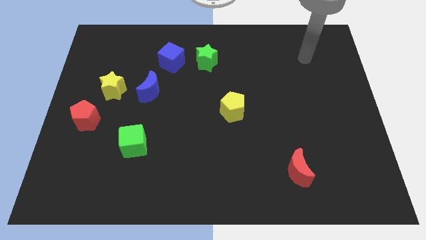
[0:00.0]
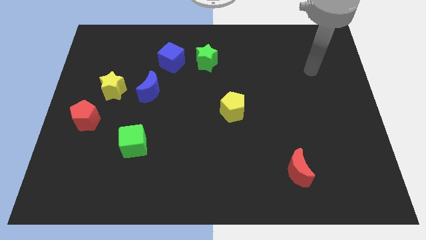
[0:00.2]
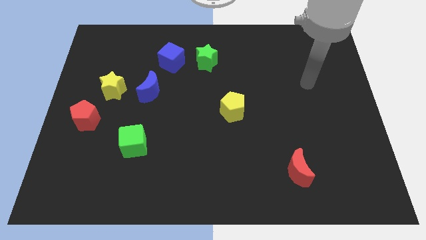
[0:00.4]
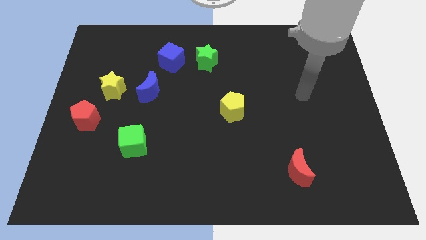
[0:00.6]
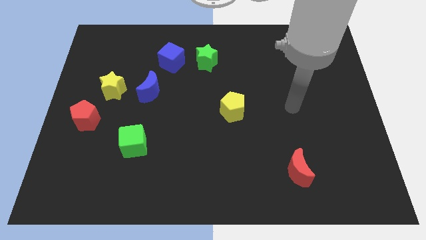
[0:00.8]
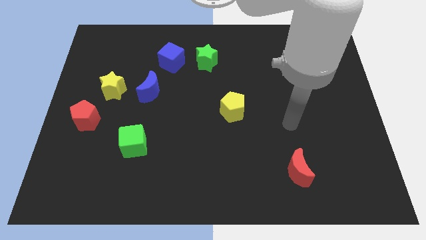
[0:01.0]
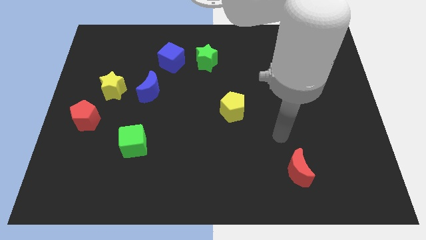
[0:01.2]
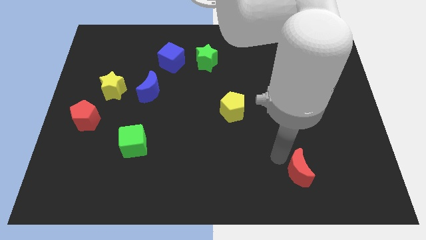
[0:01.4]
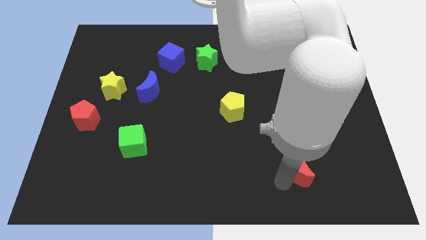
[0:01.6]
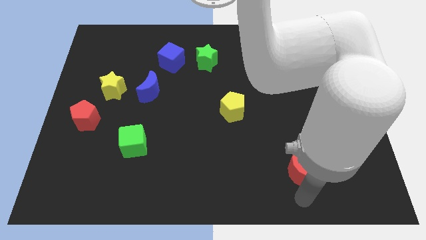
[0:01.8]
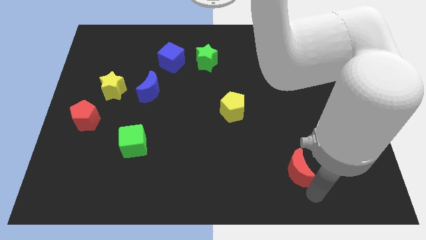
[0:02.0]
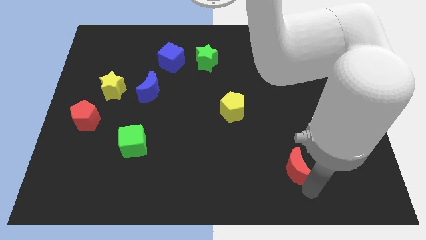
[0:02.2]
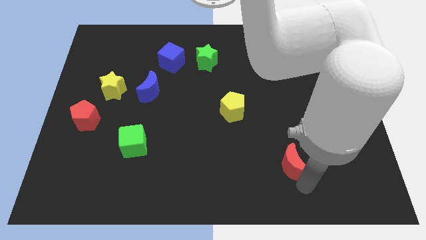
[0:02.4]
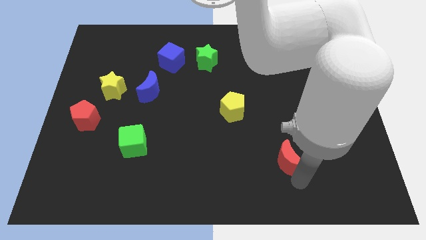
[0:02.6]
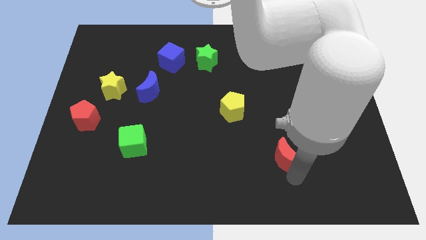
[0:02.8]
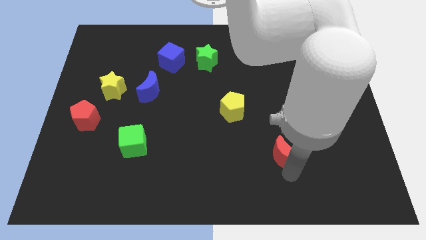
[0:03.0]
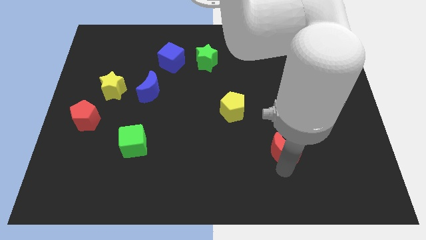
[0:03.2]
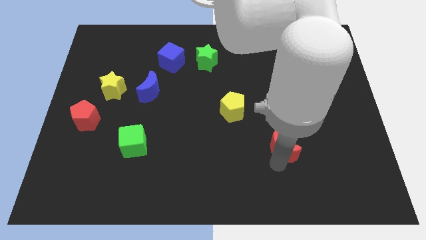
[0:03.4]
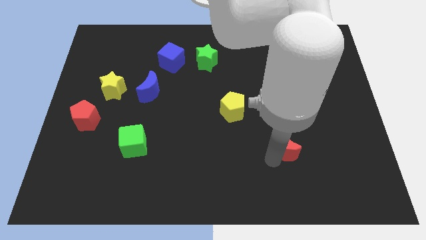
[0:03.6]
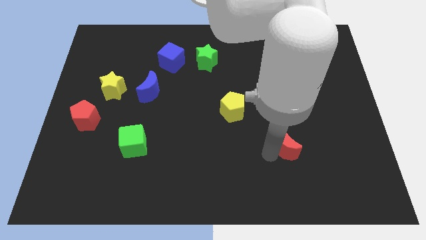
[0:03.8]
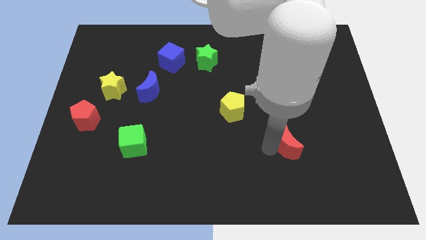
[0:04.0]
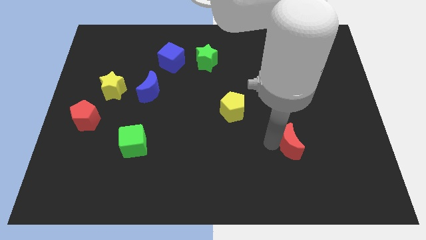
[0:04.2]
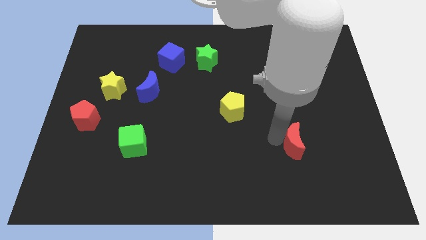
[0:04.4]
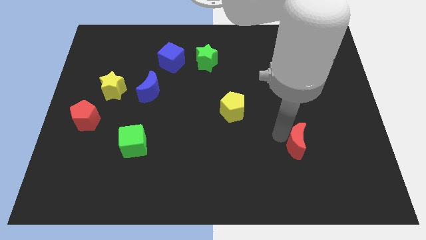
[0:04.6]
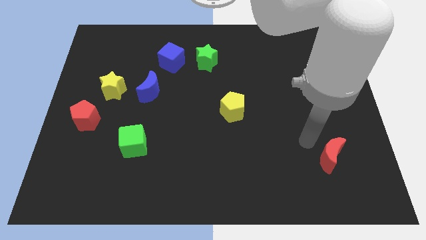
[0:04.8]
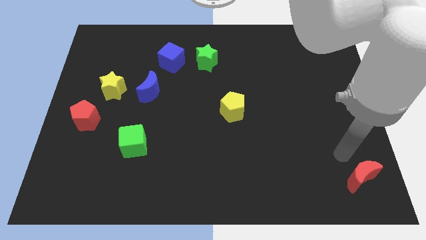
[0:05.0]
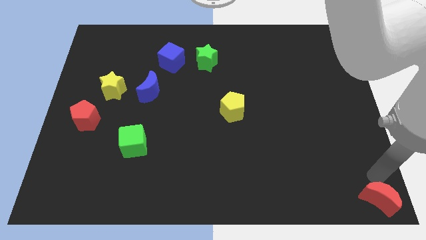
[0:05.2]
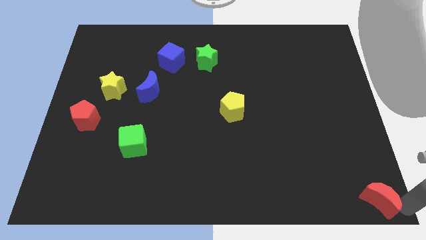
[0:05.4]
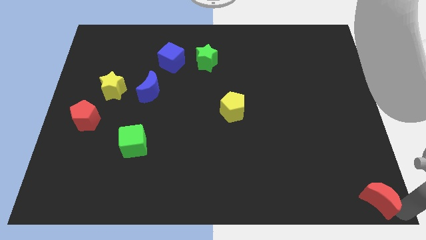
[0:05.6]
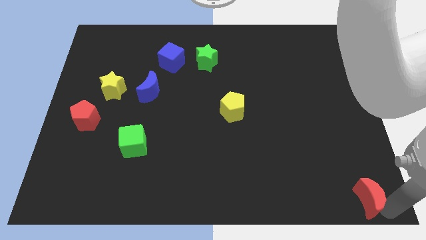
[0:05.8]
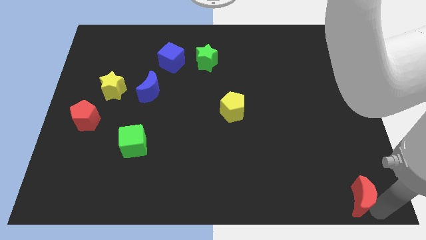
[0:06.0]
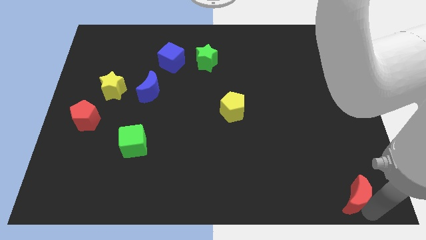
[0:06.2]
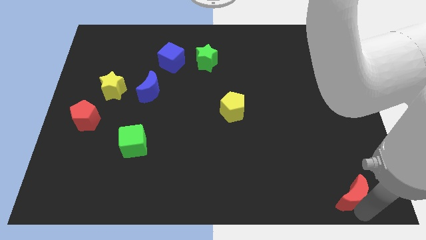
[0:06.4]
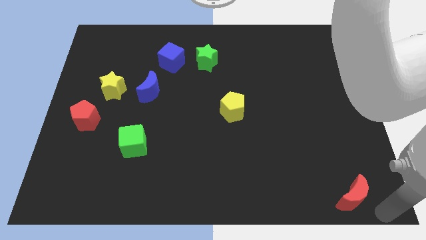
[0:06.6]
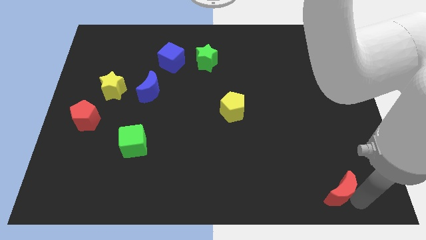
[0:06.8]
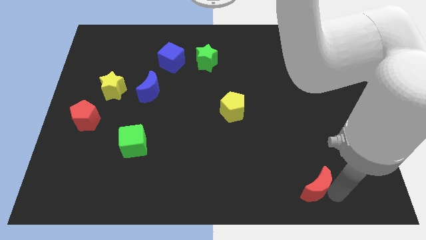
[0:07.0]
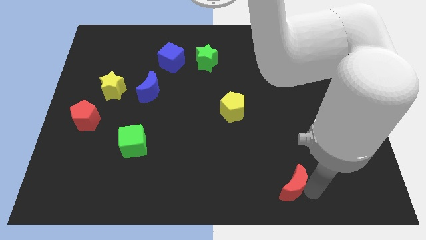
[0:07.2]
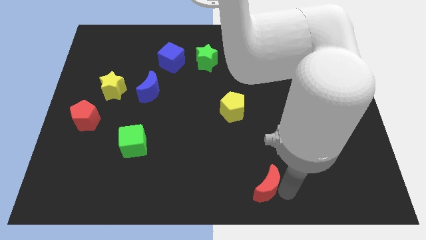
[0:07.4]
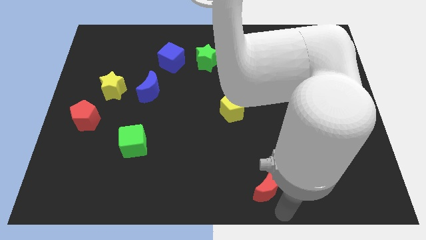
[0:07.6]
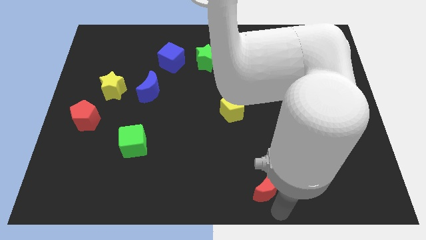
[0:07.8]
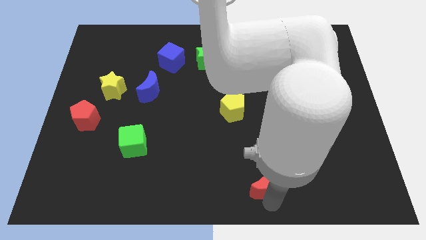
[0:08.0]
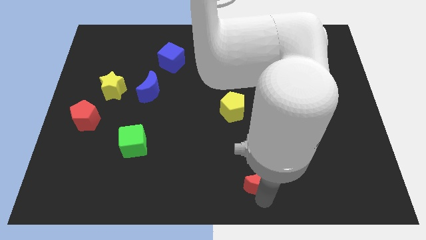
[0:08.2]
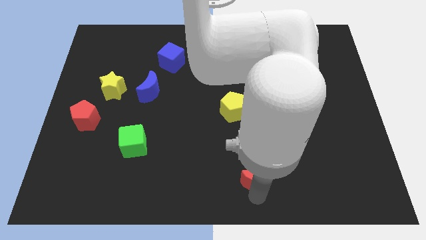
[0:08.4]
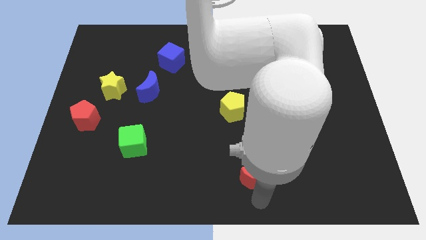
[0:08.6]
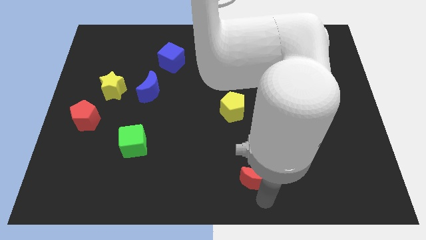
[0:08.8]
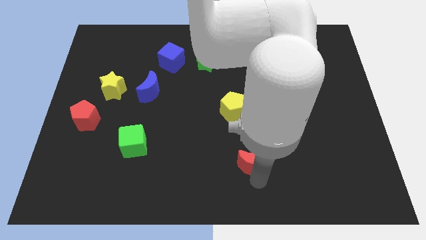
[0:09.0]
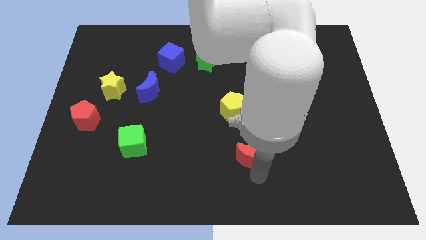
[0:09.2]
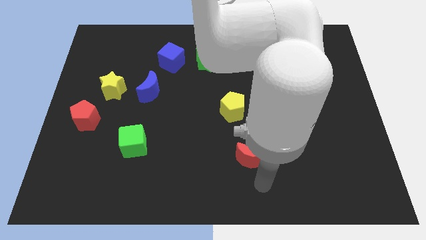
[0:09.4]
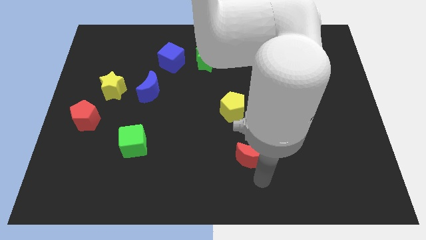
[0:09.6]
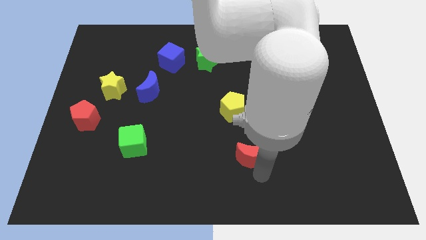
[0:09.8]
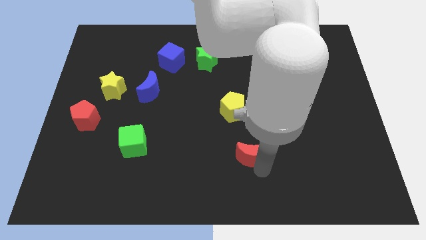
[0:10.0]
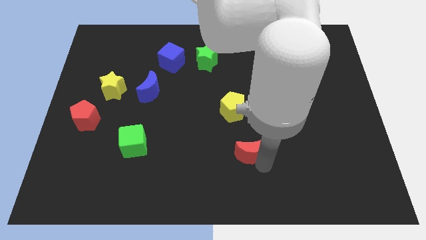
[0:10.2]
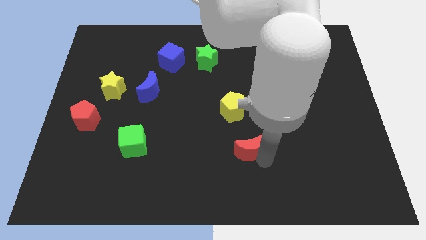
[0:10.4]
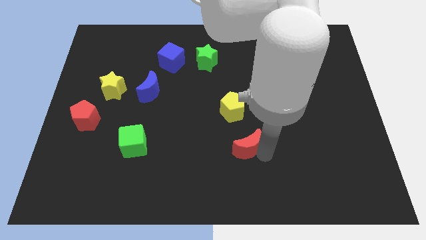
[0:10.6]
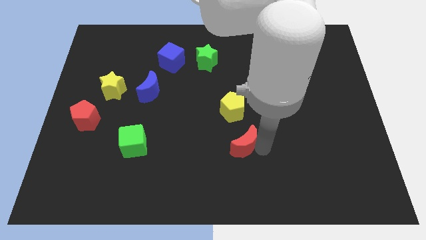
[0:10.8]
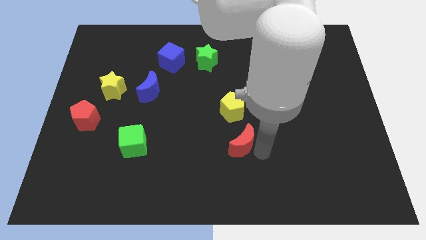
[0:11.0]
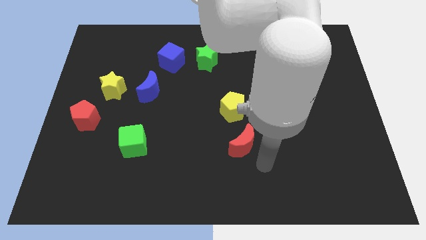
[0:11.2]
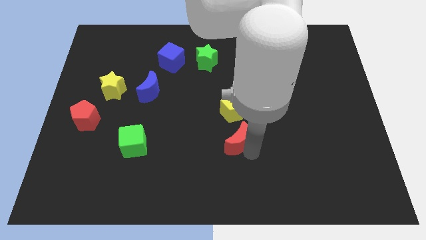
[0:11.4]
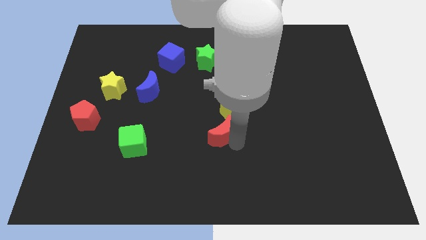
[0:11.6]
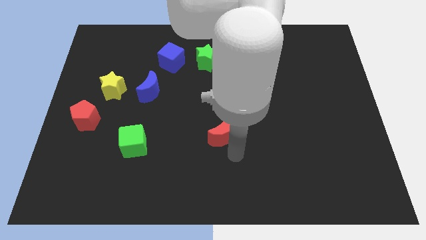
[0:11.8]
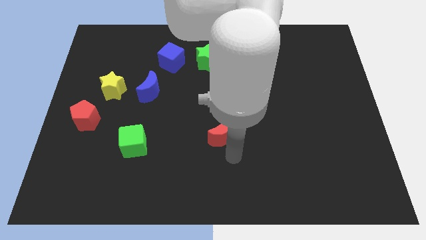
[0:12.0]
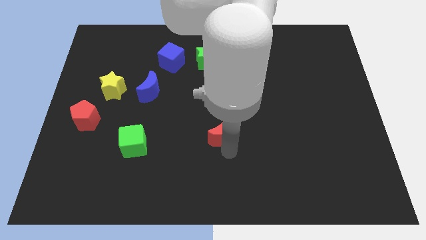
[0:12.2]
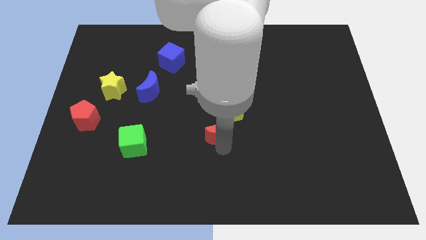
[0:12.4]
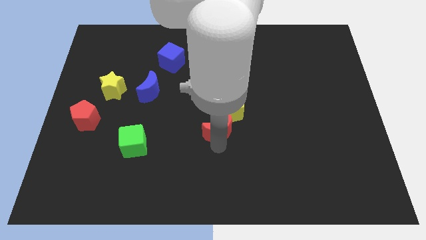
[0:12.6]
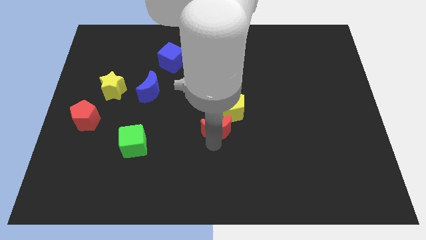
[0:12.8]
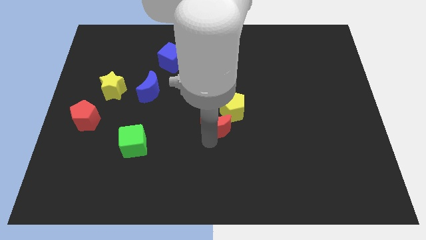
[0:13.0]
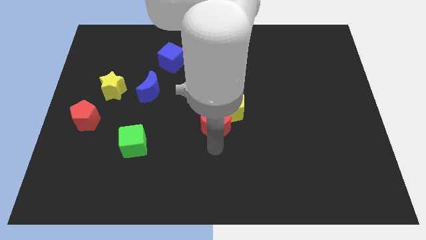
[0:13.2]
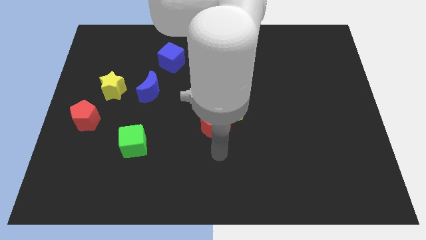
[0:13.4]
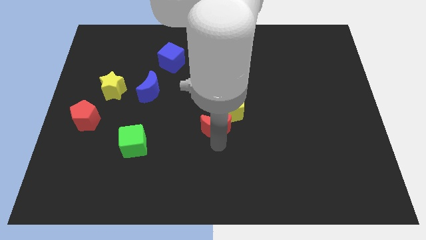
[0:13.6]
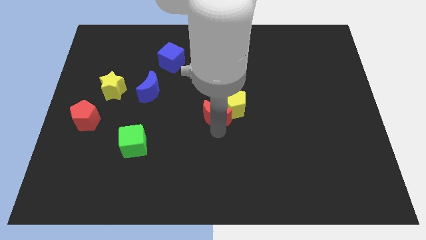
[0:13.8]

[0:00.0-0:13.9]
push the red moon upwards and to the left diagonally

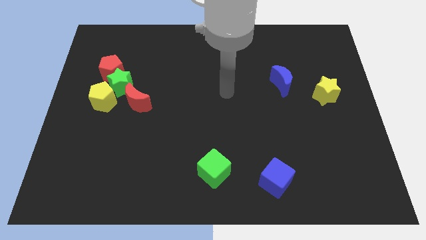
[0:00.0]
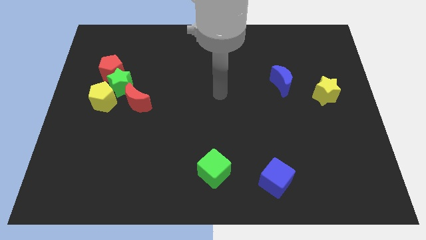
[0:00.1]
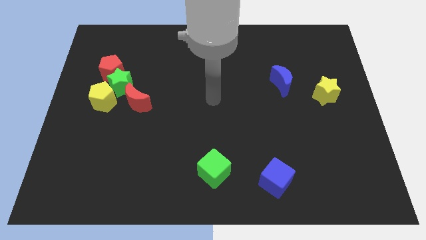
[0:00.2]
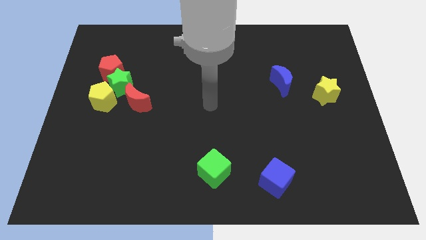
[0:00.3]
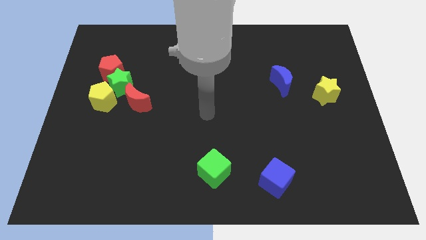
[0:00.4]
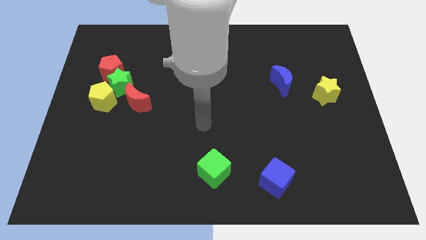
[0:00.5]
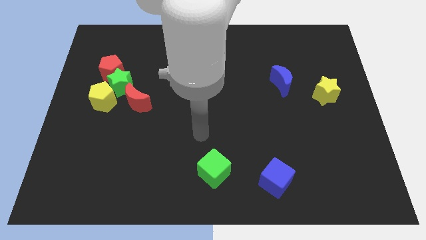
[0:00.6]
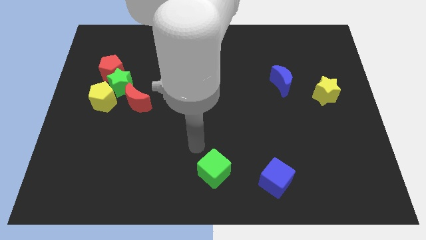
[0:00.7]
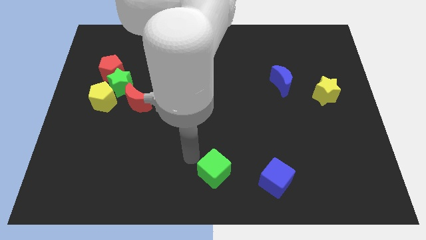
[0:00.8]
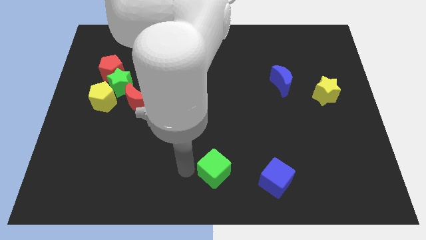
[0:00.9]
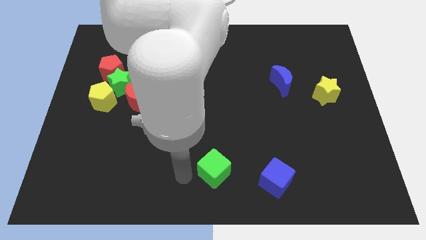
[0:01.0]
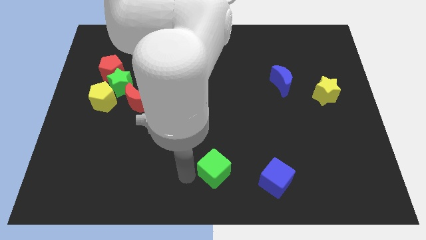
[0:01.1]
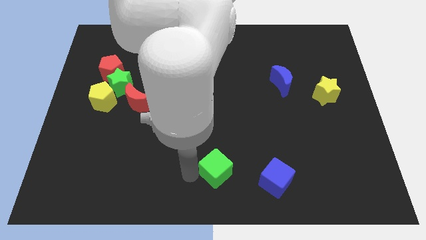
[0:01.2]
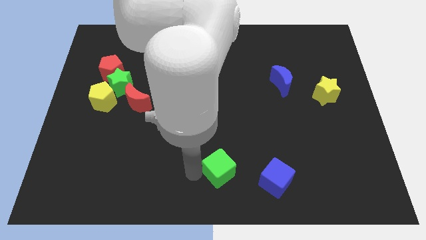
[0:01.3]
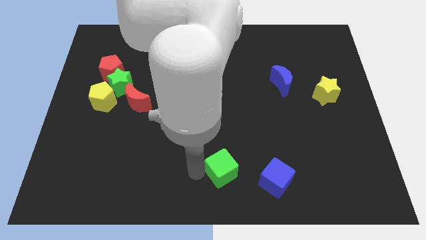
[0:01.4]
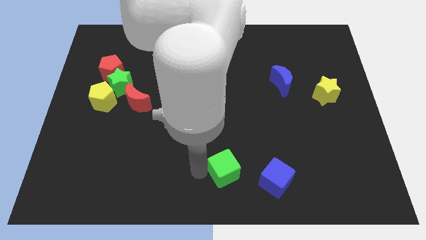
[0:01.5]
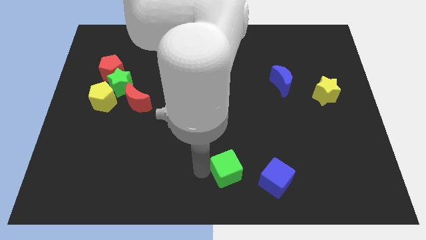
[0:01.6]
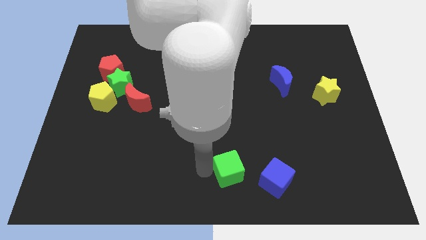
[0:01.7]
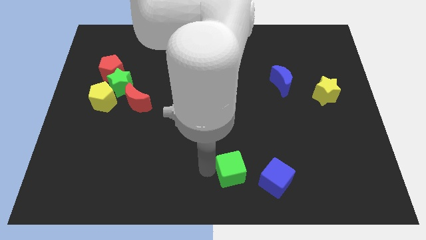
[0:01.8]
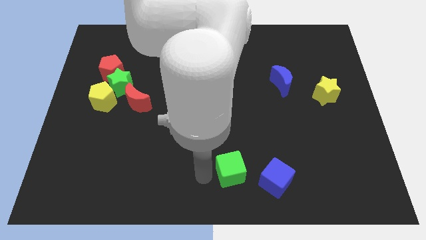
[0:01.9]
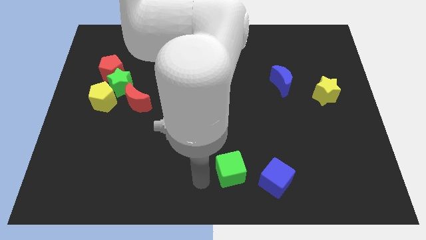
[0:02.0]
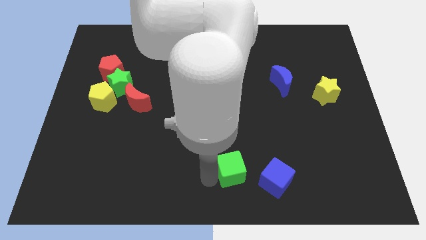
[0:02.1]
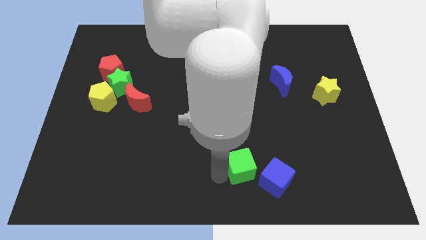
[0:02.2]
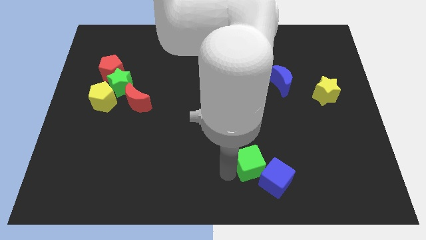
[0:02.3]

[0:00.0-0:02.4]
slide the green cube a bit right
